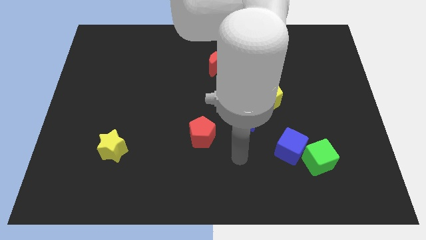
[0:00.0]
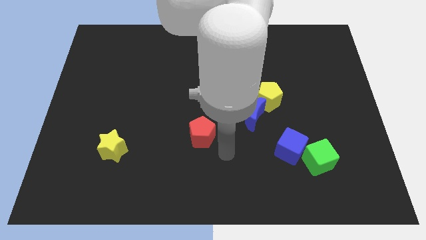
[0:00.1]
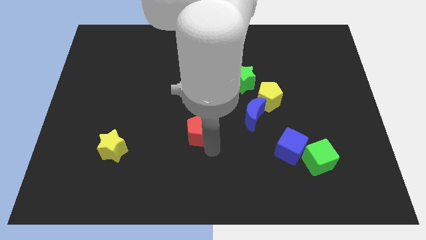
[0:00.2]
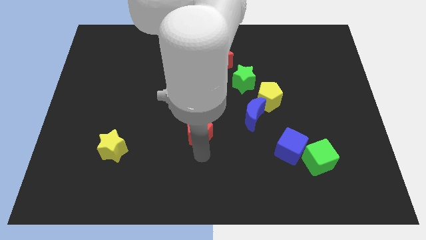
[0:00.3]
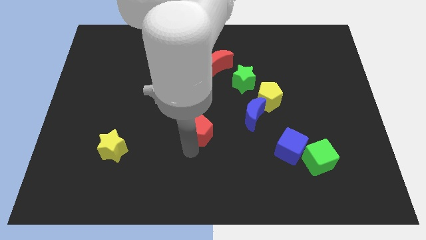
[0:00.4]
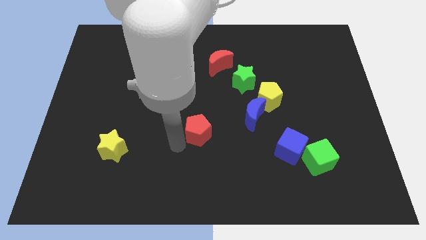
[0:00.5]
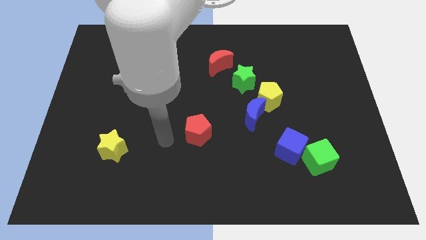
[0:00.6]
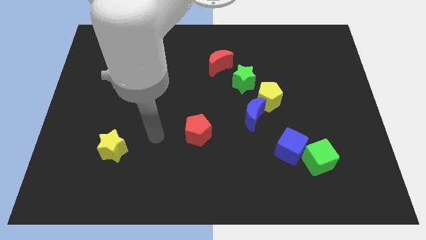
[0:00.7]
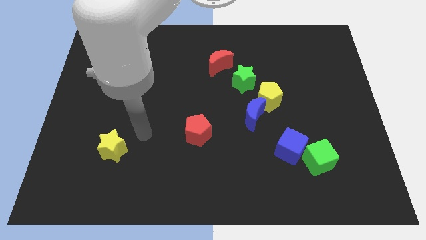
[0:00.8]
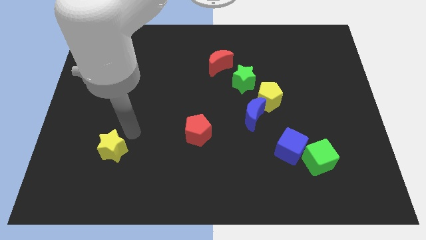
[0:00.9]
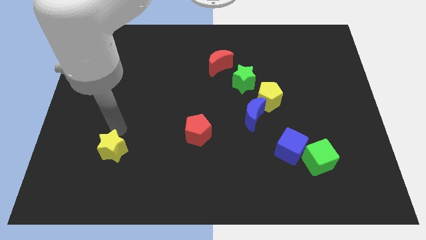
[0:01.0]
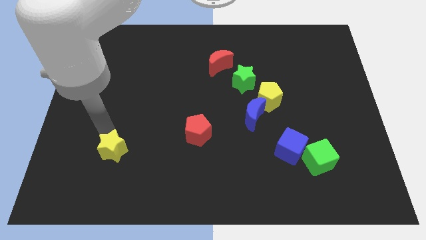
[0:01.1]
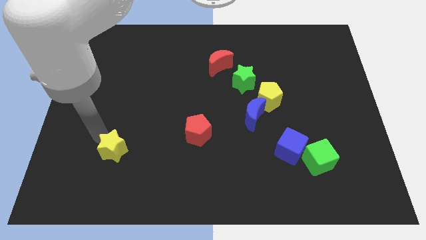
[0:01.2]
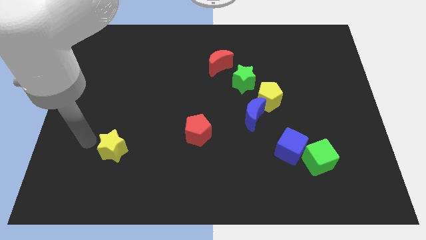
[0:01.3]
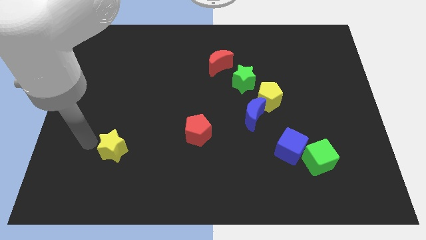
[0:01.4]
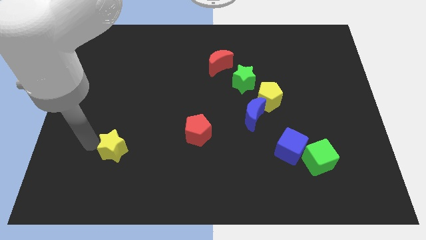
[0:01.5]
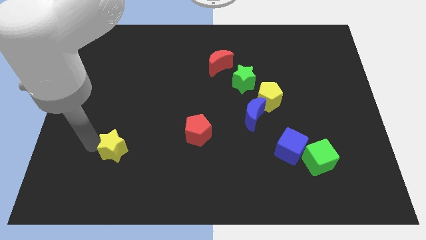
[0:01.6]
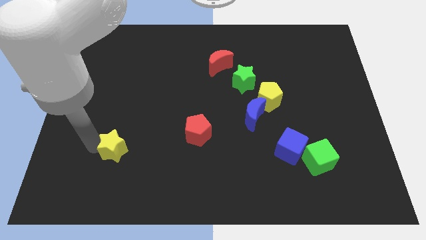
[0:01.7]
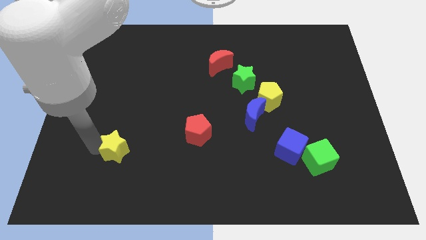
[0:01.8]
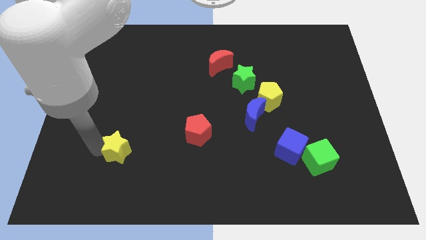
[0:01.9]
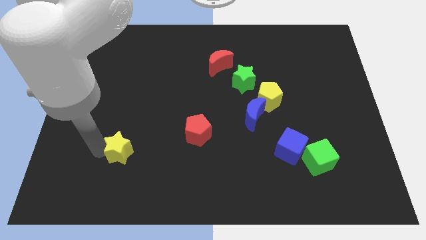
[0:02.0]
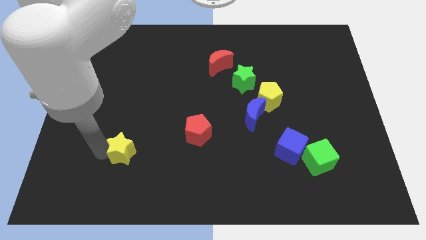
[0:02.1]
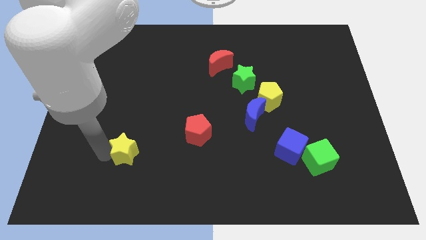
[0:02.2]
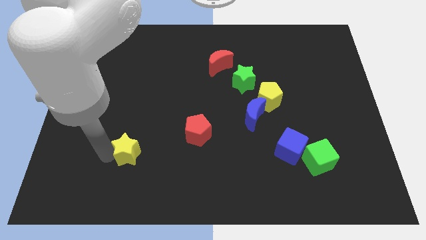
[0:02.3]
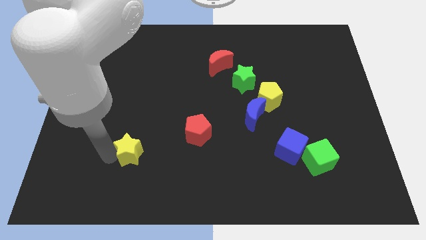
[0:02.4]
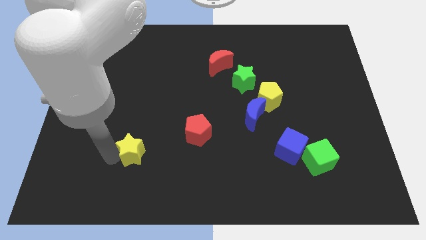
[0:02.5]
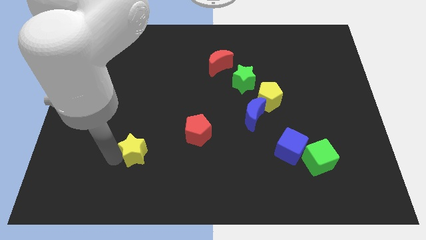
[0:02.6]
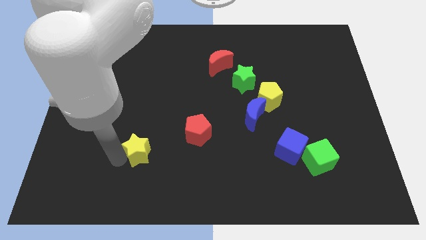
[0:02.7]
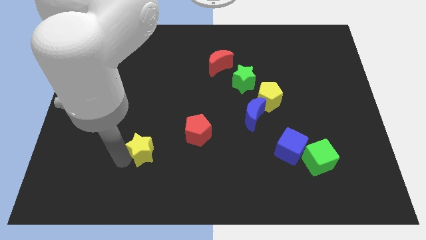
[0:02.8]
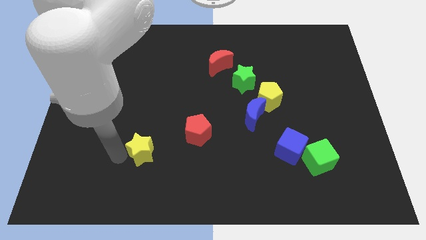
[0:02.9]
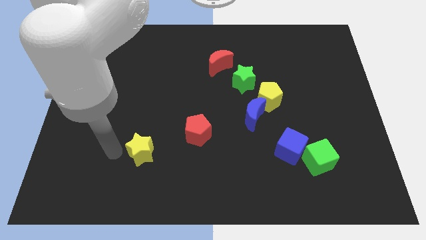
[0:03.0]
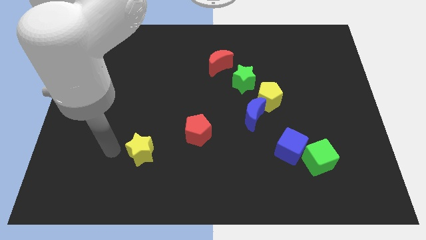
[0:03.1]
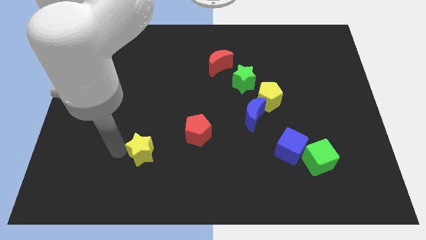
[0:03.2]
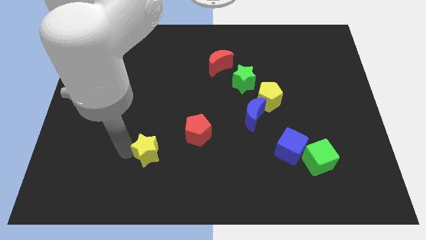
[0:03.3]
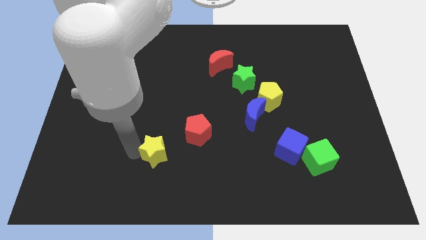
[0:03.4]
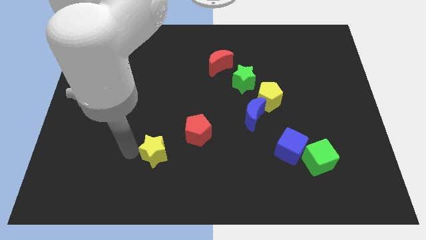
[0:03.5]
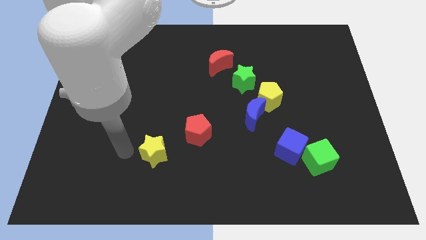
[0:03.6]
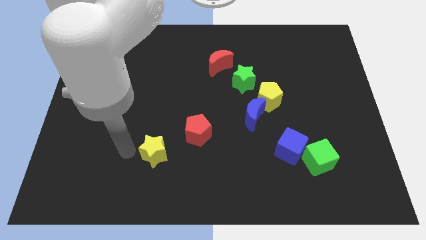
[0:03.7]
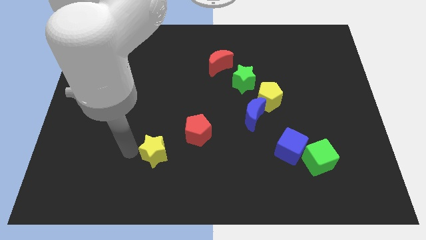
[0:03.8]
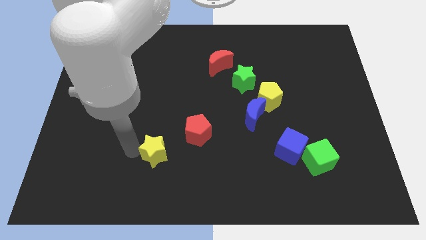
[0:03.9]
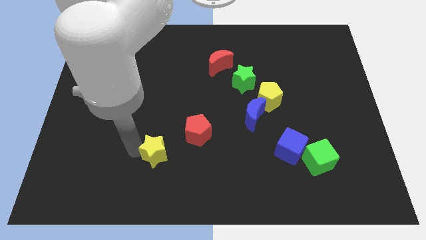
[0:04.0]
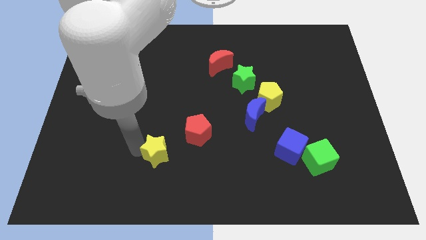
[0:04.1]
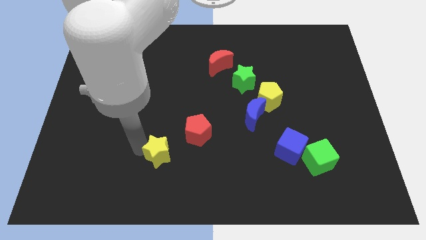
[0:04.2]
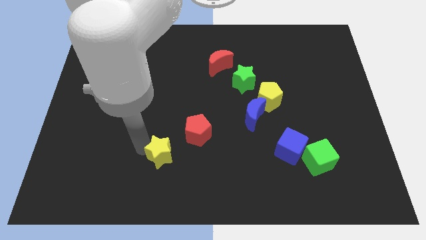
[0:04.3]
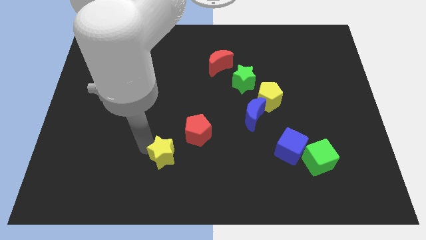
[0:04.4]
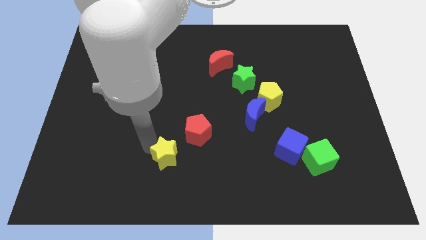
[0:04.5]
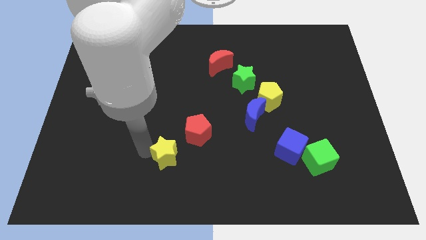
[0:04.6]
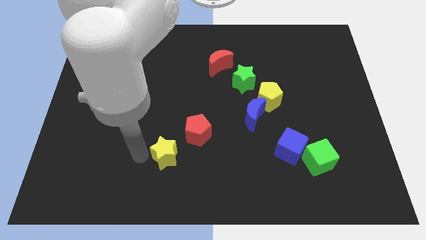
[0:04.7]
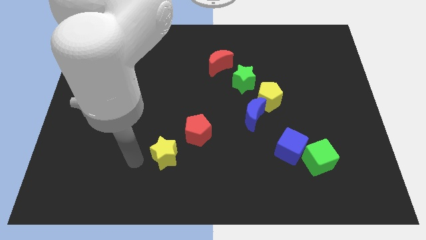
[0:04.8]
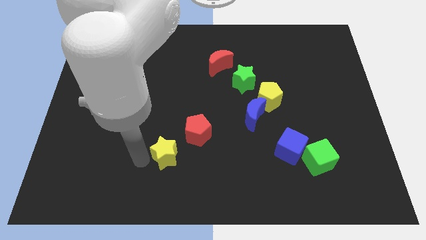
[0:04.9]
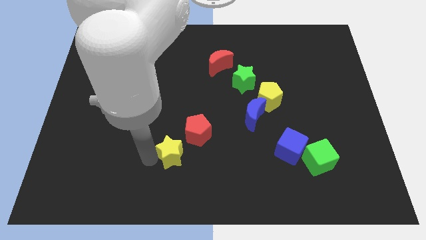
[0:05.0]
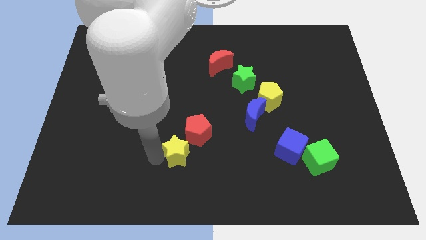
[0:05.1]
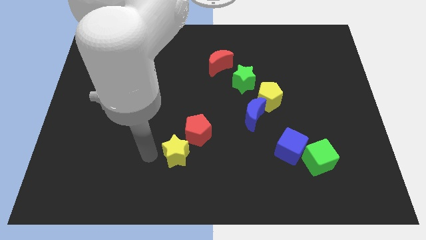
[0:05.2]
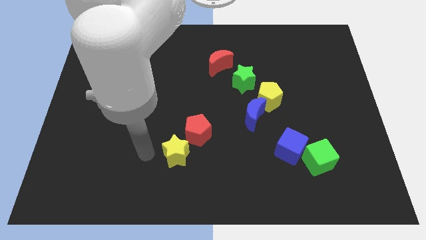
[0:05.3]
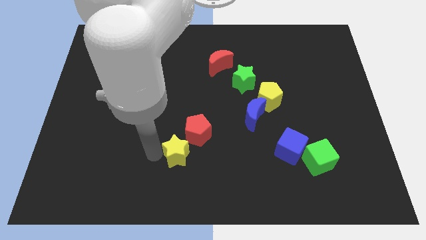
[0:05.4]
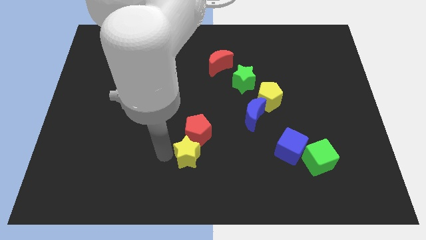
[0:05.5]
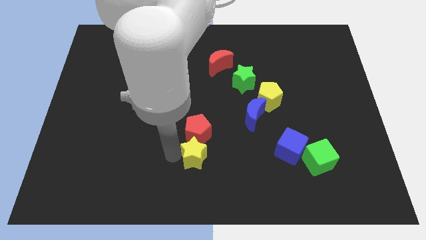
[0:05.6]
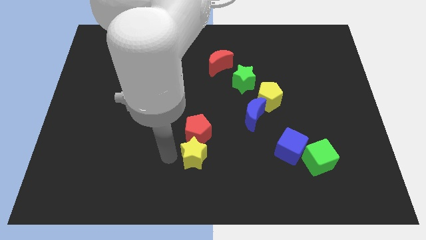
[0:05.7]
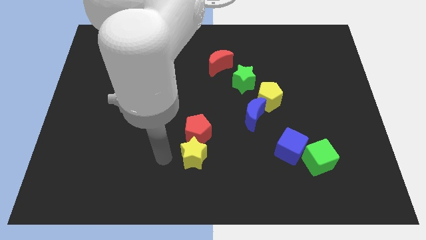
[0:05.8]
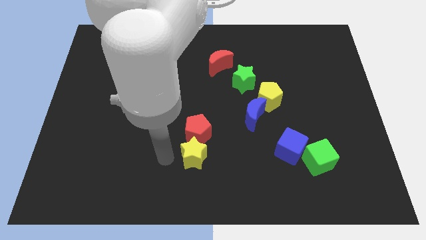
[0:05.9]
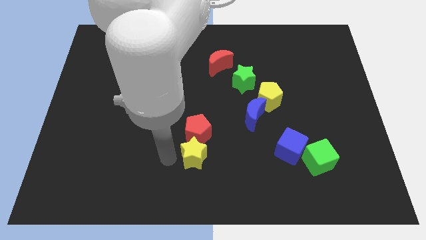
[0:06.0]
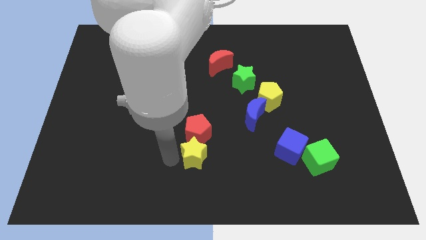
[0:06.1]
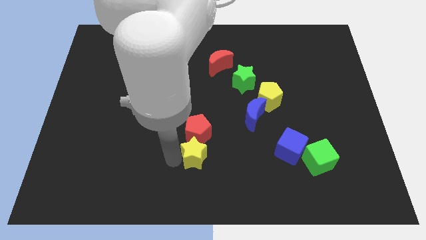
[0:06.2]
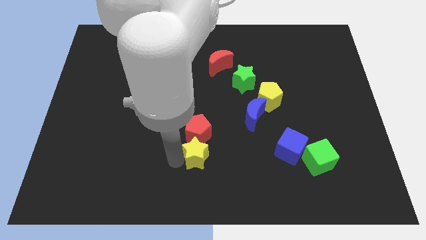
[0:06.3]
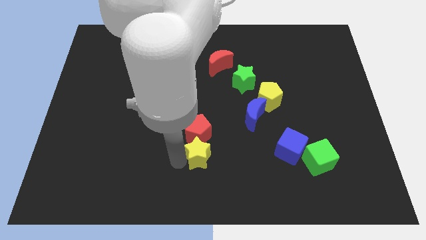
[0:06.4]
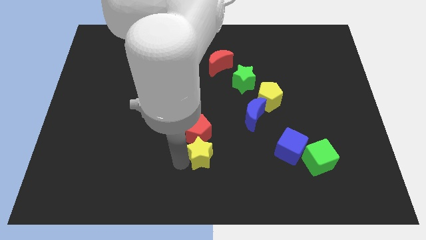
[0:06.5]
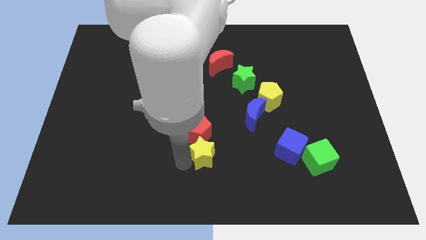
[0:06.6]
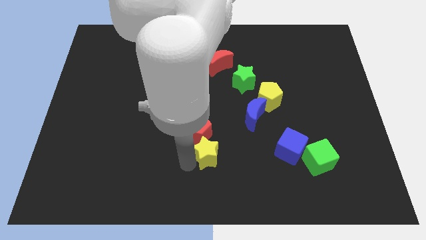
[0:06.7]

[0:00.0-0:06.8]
slide the yellow star right

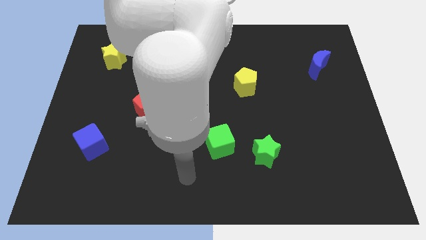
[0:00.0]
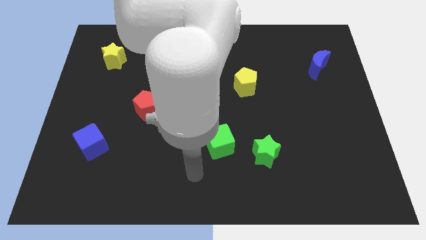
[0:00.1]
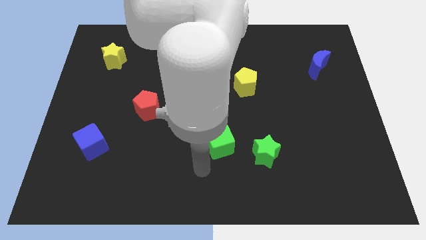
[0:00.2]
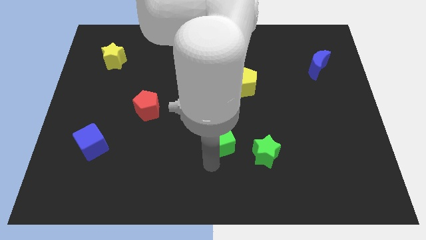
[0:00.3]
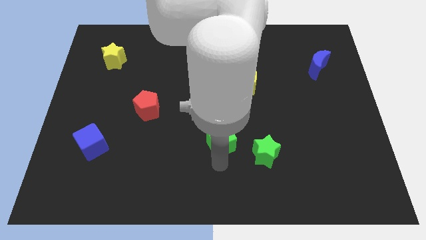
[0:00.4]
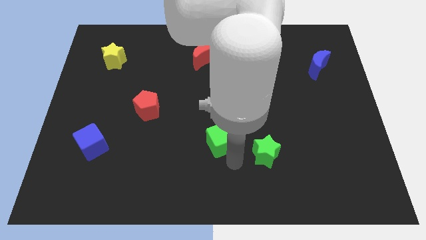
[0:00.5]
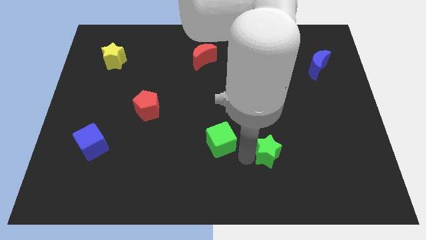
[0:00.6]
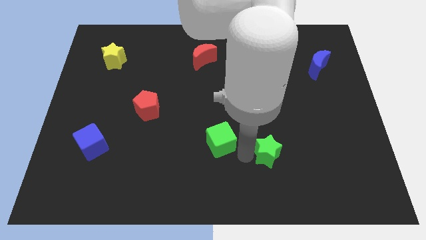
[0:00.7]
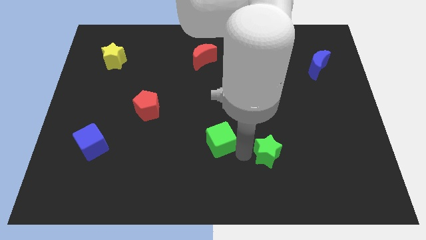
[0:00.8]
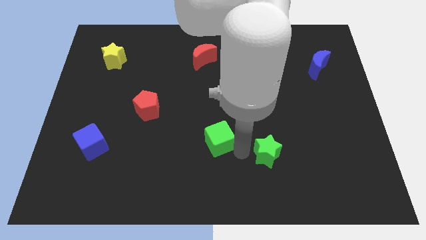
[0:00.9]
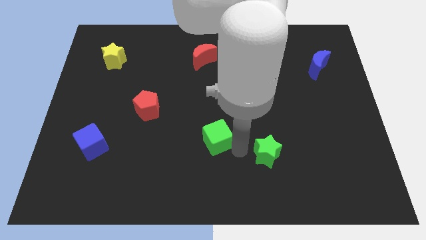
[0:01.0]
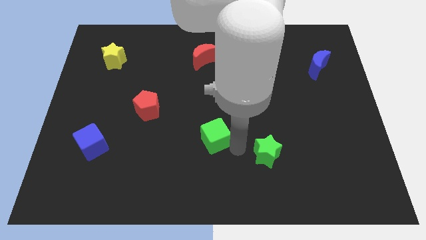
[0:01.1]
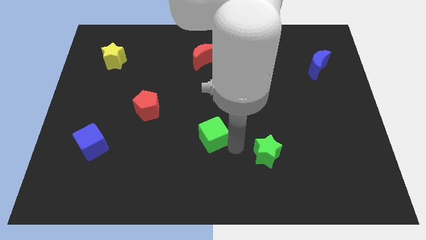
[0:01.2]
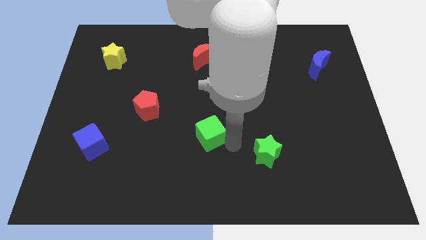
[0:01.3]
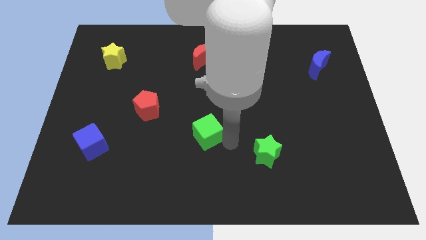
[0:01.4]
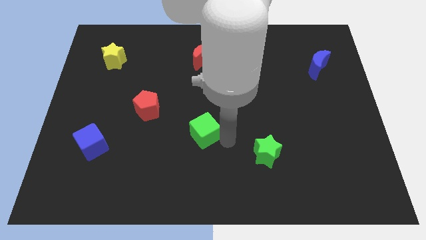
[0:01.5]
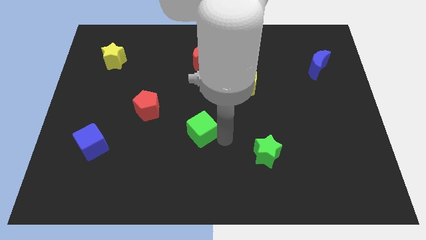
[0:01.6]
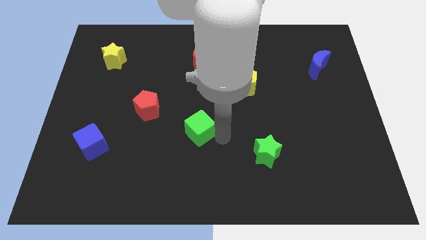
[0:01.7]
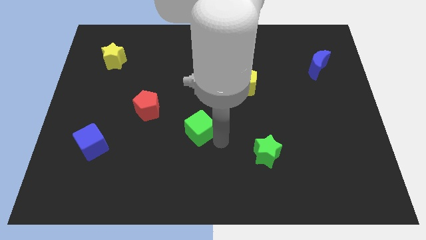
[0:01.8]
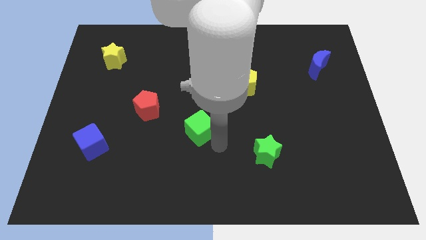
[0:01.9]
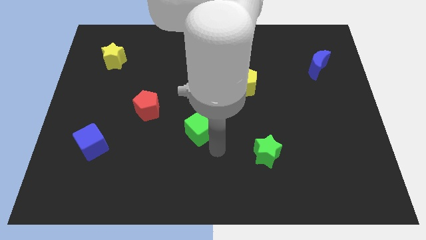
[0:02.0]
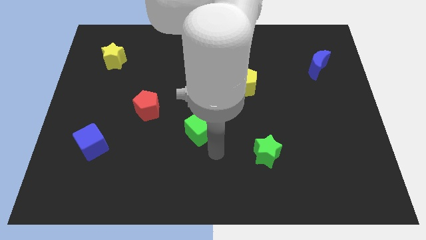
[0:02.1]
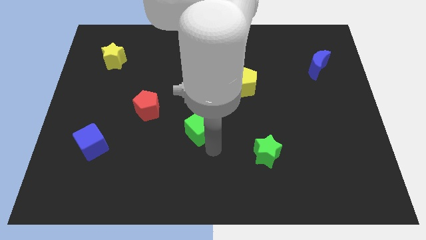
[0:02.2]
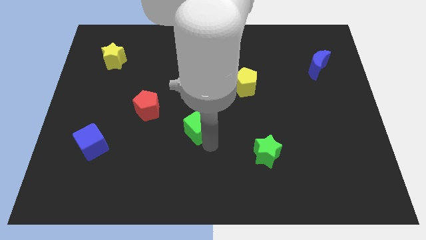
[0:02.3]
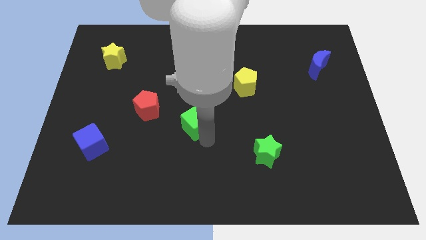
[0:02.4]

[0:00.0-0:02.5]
slightly slide the green cube upwards and to the left diagonally
